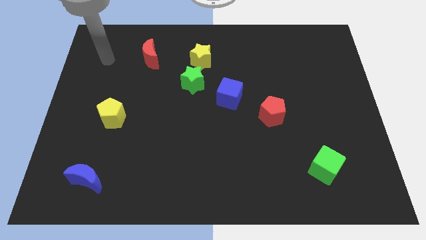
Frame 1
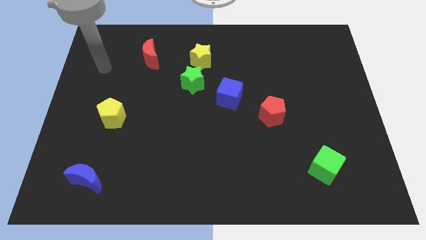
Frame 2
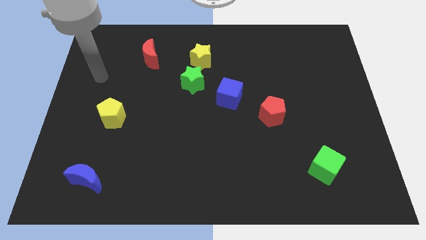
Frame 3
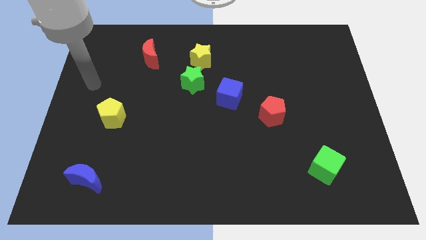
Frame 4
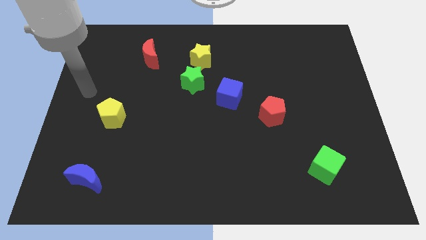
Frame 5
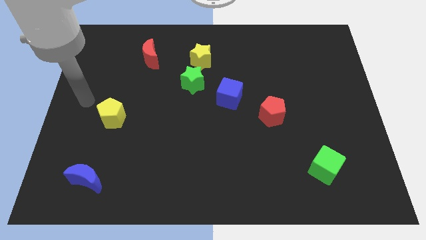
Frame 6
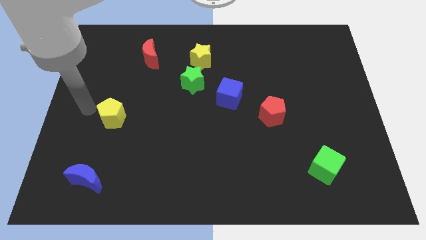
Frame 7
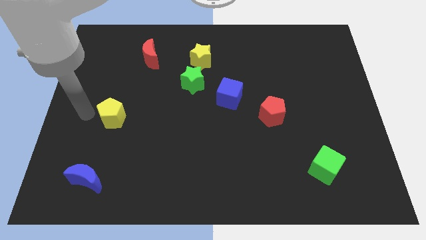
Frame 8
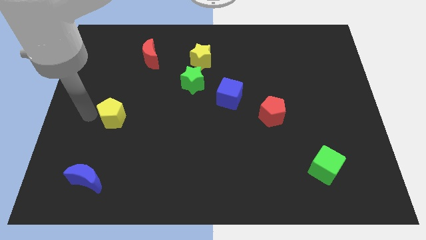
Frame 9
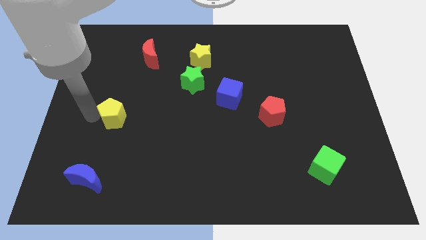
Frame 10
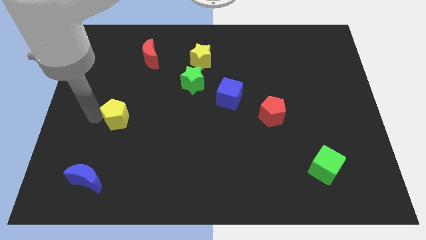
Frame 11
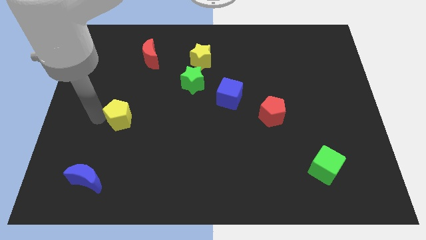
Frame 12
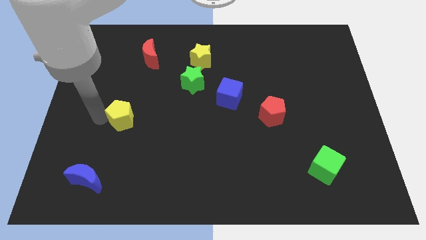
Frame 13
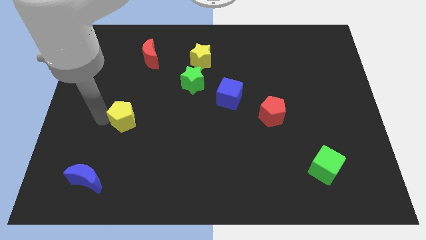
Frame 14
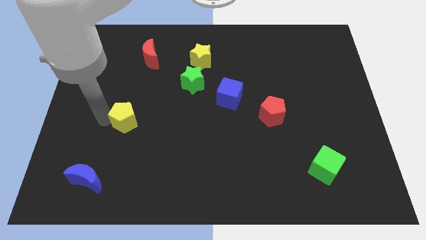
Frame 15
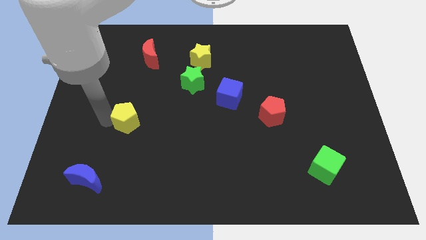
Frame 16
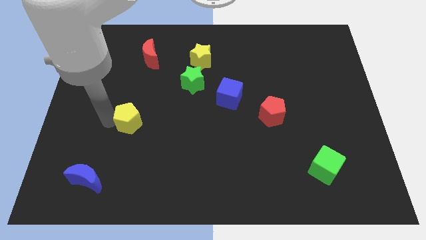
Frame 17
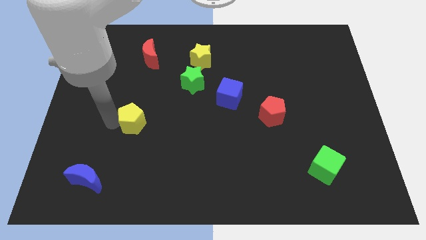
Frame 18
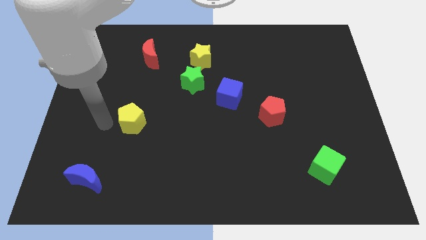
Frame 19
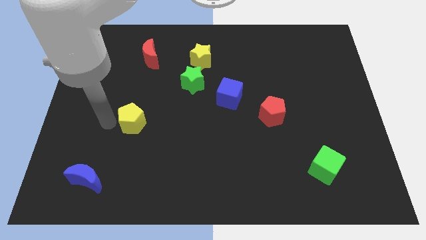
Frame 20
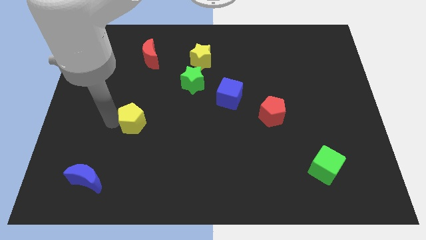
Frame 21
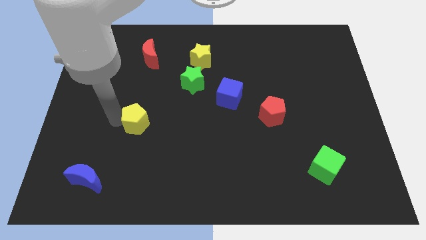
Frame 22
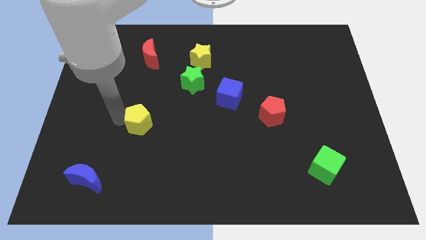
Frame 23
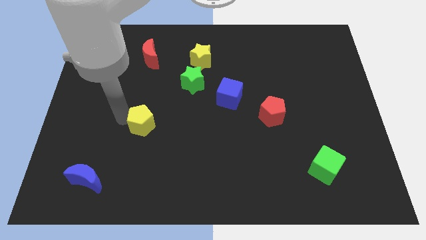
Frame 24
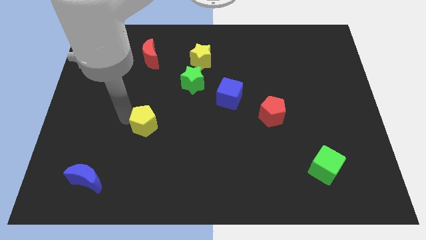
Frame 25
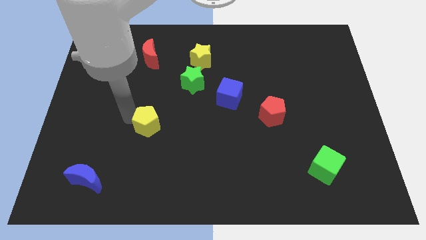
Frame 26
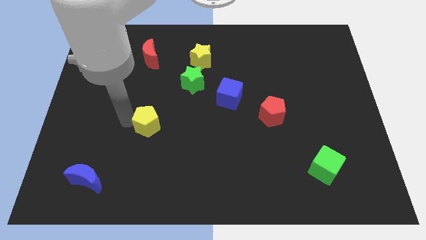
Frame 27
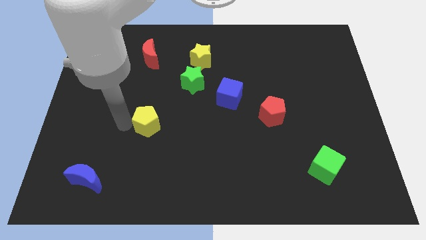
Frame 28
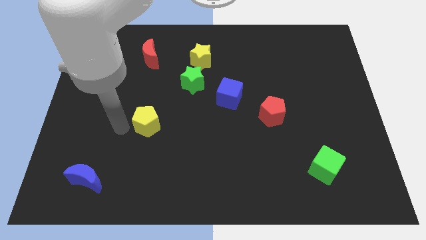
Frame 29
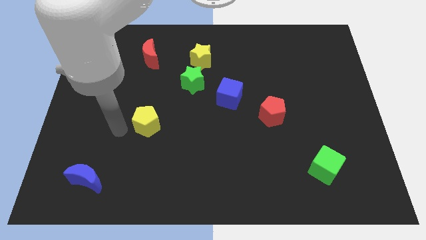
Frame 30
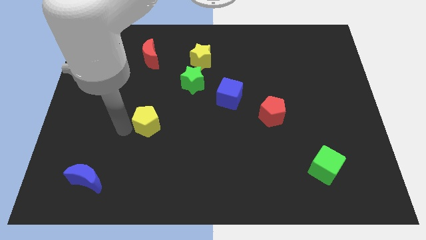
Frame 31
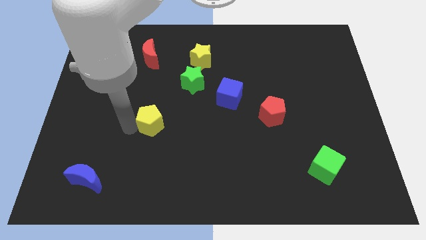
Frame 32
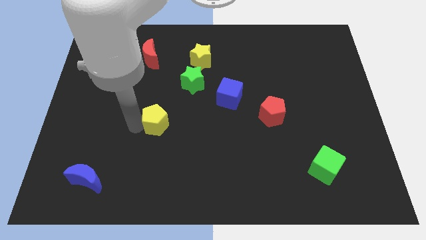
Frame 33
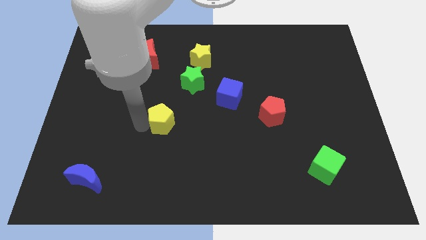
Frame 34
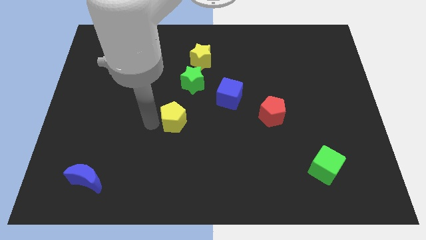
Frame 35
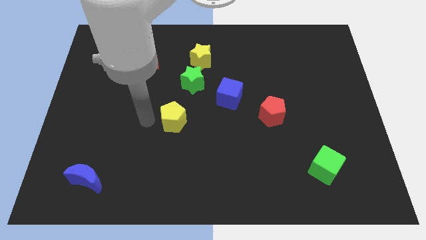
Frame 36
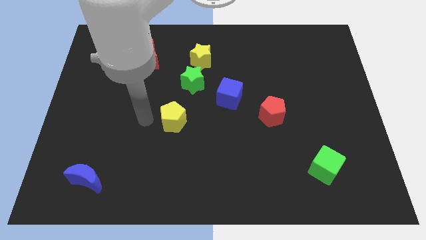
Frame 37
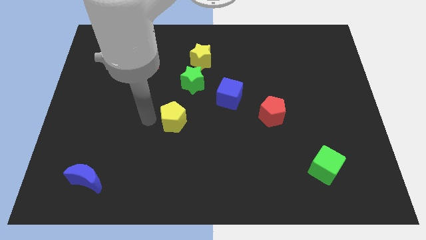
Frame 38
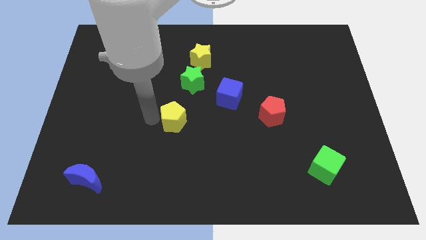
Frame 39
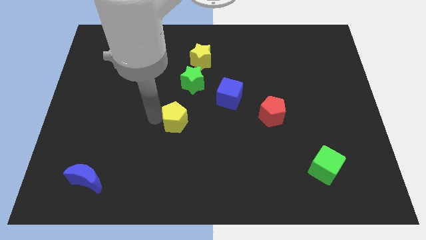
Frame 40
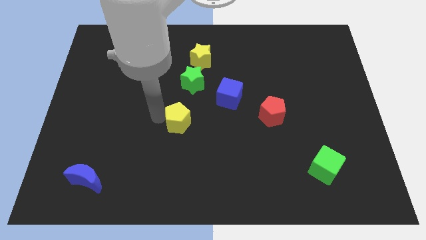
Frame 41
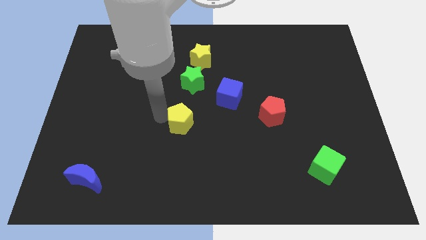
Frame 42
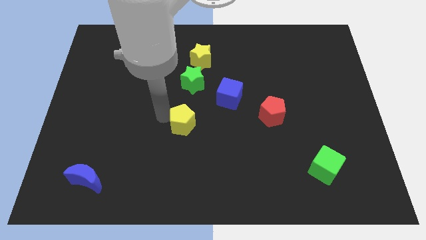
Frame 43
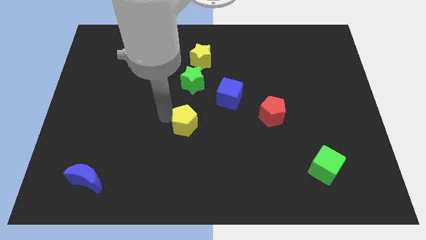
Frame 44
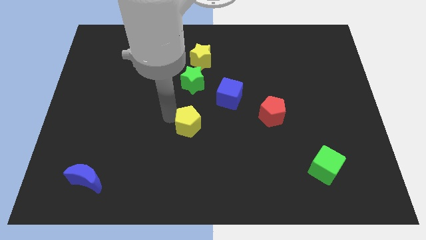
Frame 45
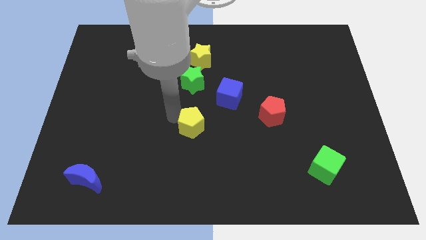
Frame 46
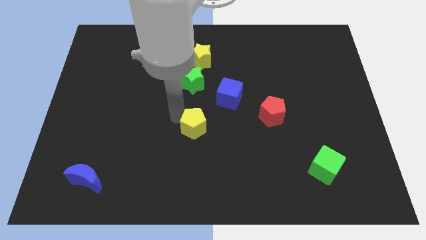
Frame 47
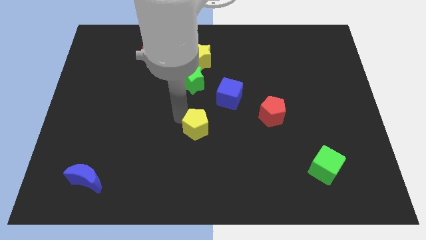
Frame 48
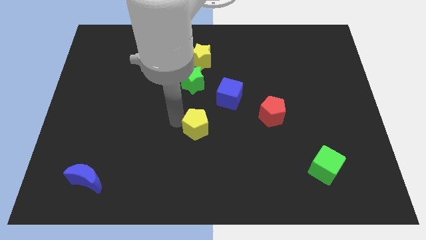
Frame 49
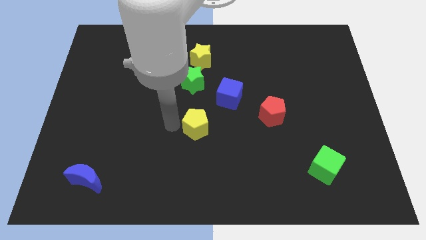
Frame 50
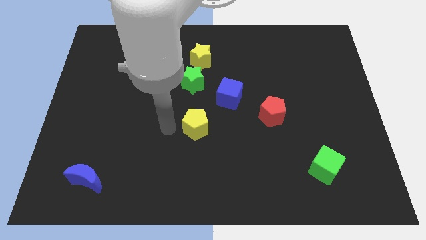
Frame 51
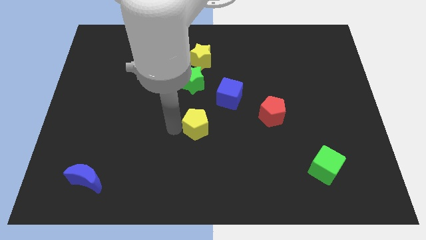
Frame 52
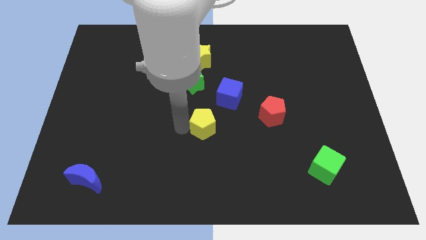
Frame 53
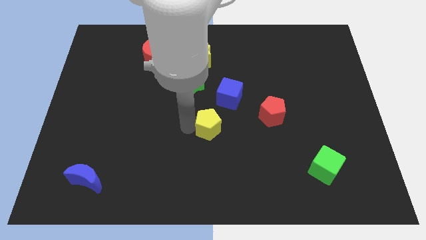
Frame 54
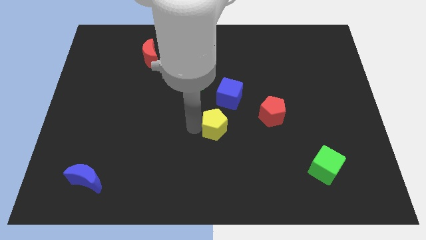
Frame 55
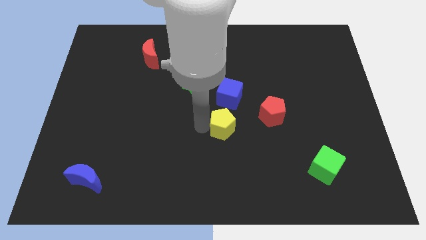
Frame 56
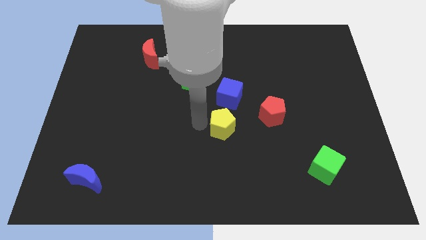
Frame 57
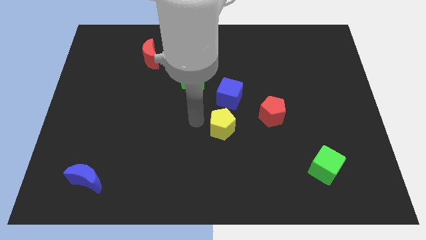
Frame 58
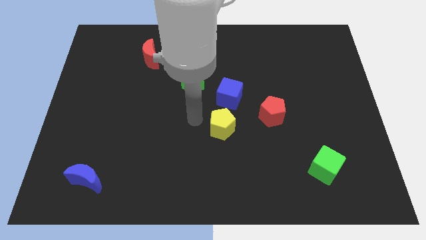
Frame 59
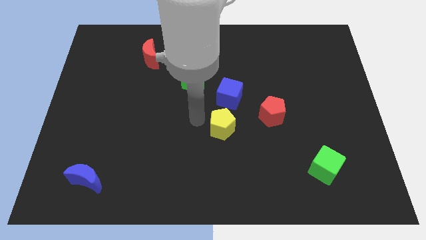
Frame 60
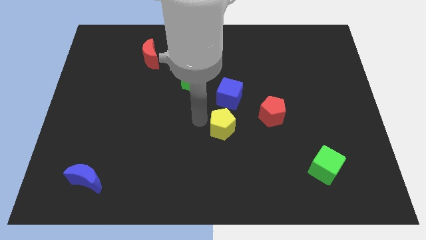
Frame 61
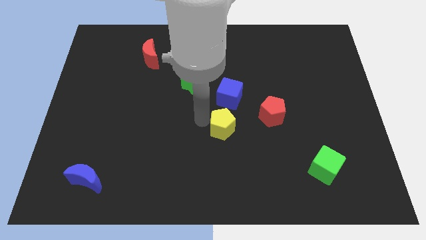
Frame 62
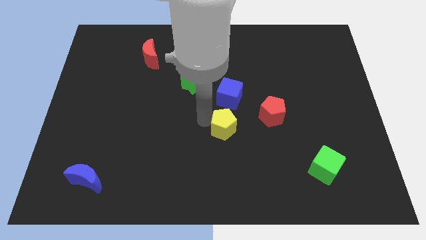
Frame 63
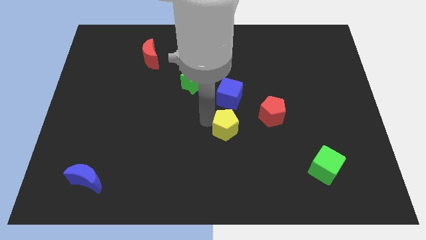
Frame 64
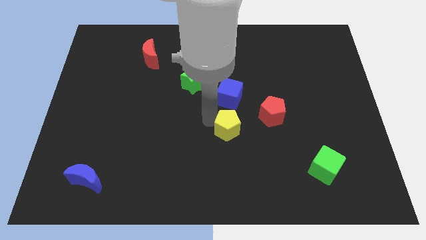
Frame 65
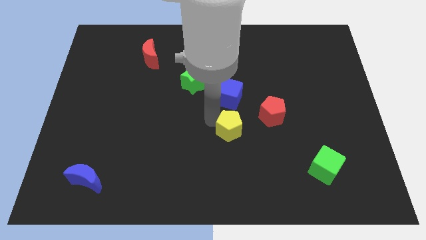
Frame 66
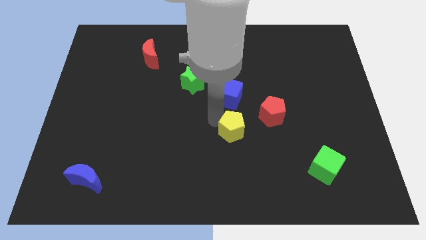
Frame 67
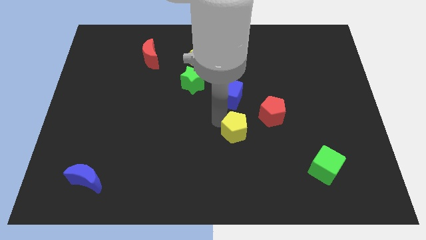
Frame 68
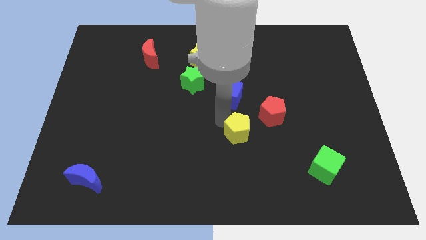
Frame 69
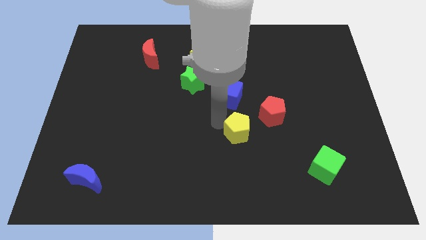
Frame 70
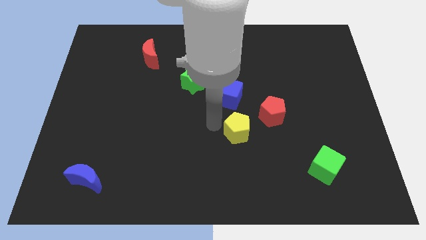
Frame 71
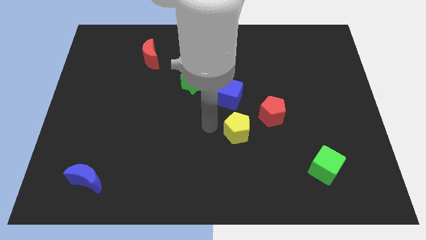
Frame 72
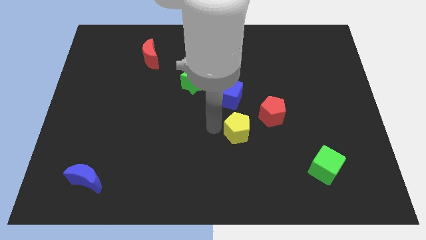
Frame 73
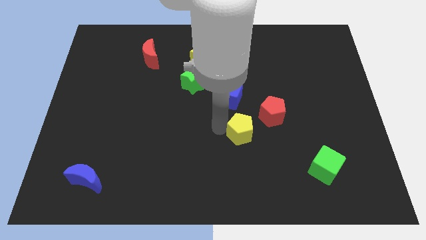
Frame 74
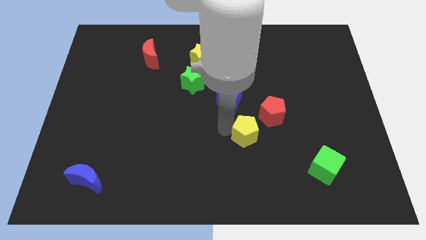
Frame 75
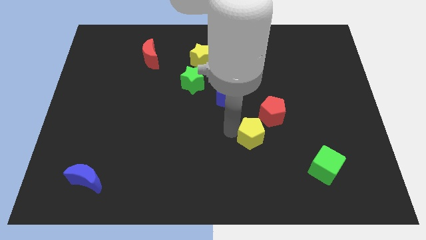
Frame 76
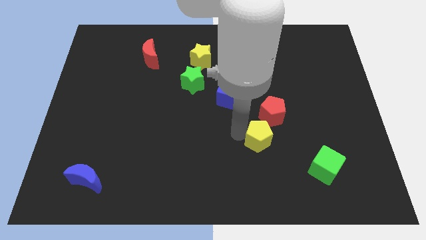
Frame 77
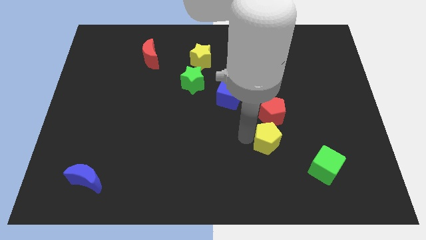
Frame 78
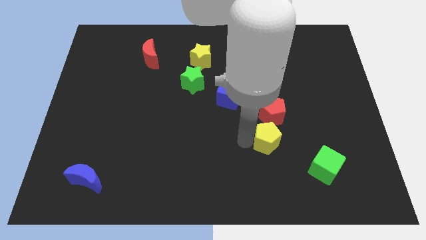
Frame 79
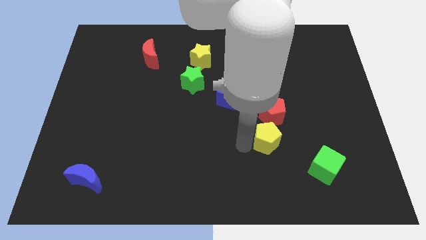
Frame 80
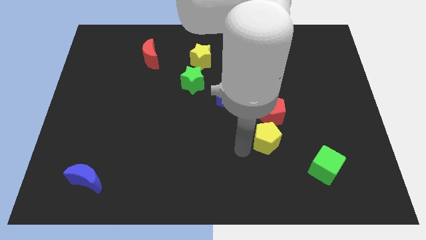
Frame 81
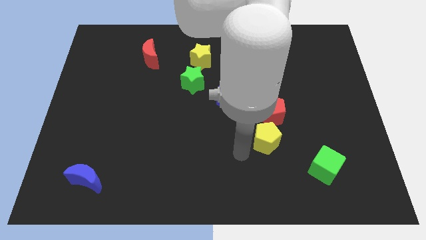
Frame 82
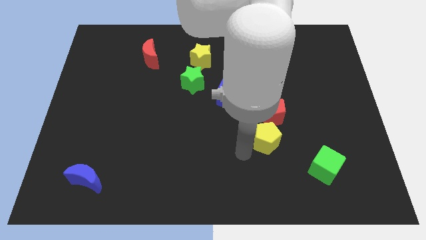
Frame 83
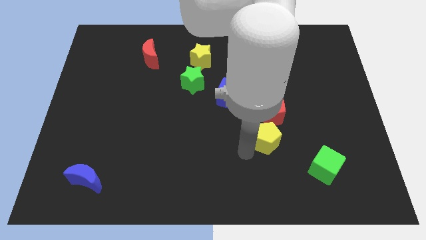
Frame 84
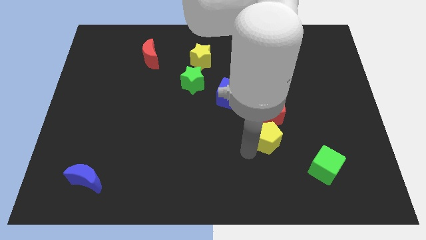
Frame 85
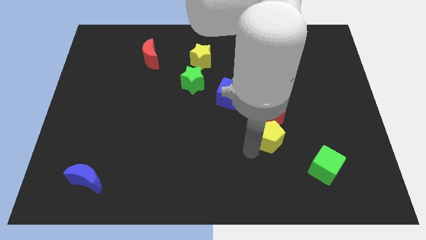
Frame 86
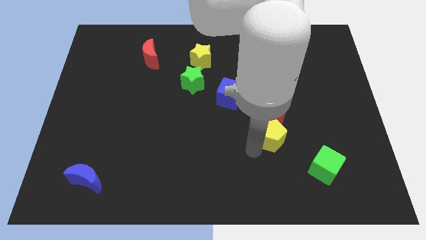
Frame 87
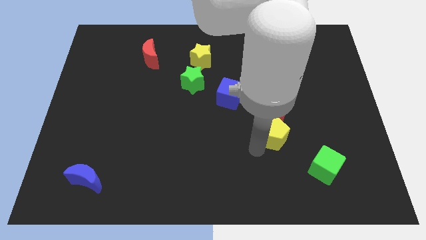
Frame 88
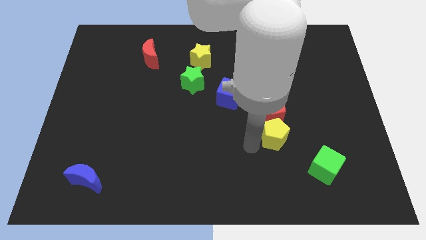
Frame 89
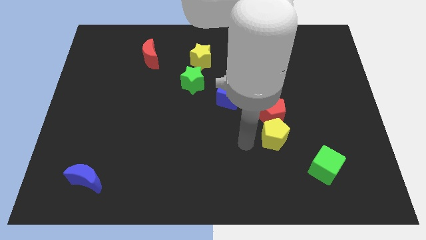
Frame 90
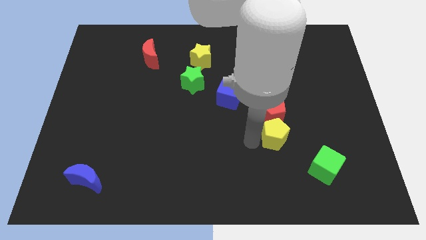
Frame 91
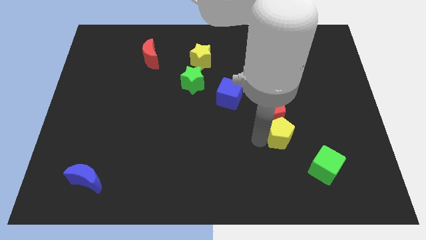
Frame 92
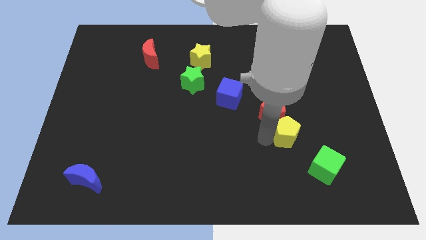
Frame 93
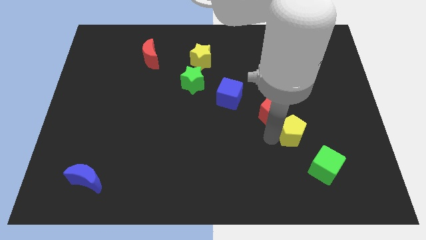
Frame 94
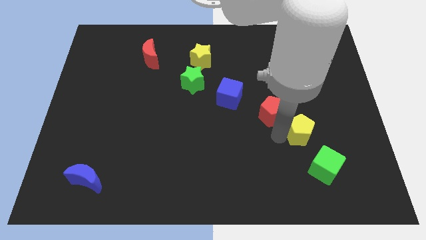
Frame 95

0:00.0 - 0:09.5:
push the yellow pentagon to the top of the green cube
